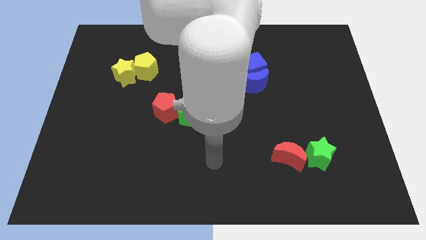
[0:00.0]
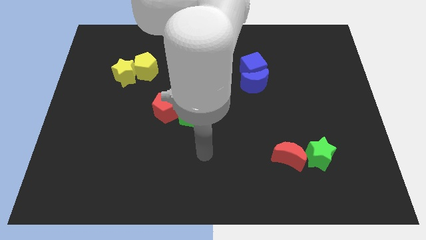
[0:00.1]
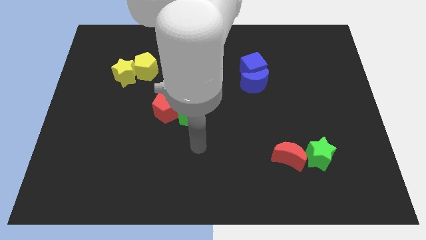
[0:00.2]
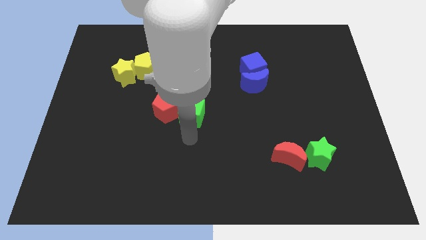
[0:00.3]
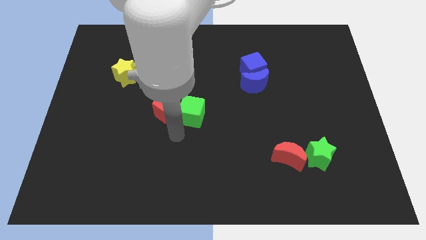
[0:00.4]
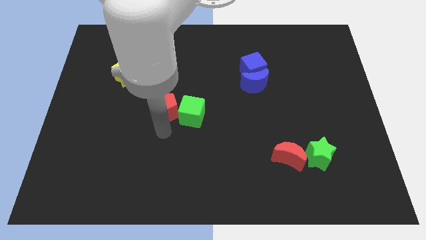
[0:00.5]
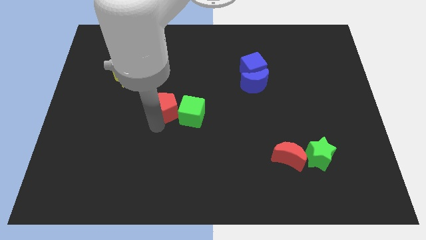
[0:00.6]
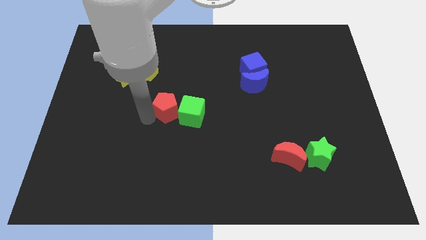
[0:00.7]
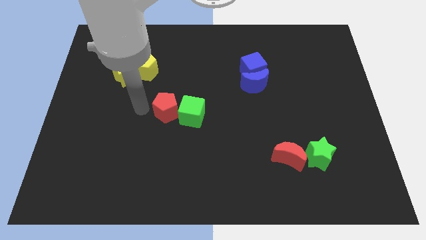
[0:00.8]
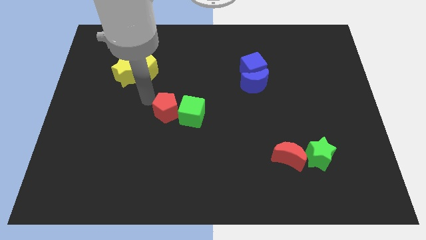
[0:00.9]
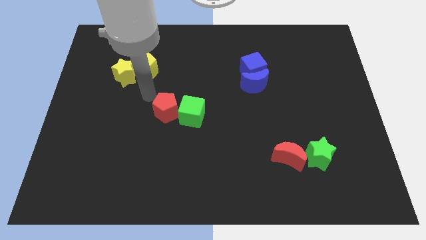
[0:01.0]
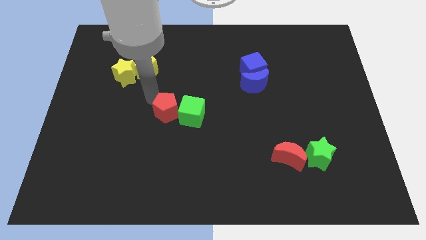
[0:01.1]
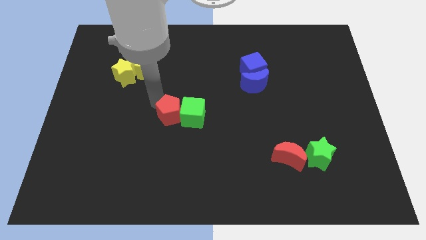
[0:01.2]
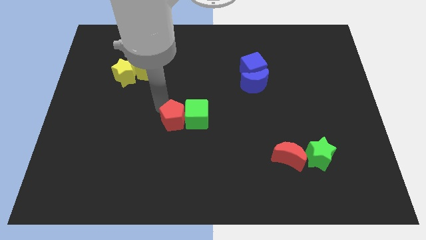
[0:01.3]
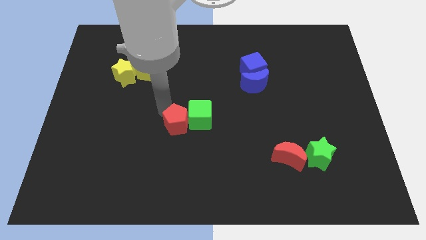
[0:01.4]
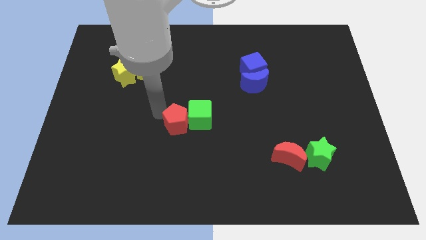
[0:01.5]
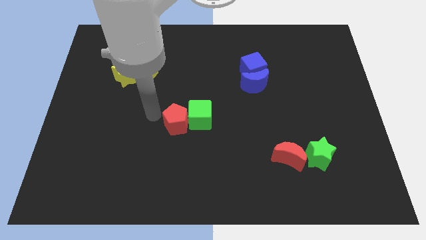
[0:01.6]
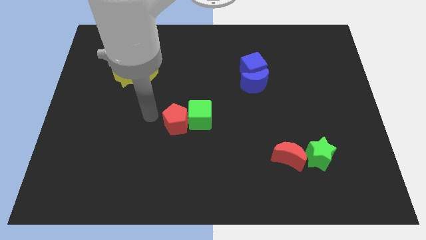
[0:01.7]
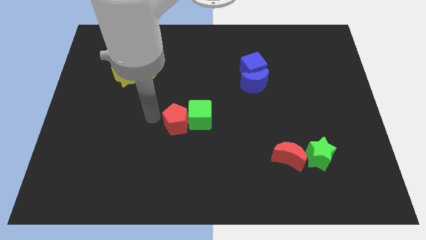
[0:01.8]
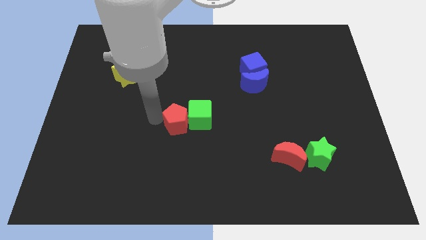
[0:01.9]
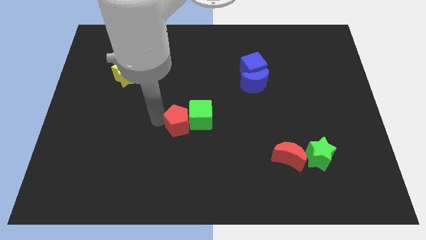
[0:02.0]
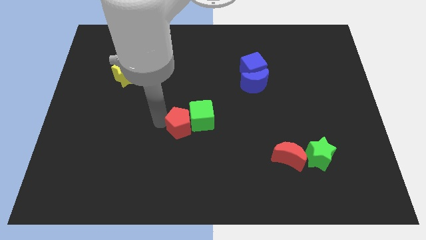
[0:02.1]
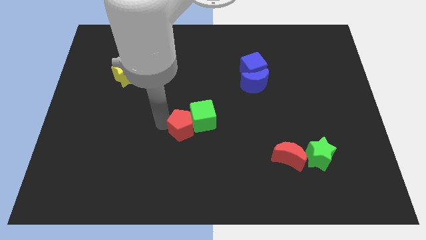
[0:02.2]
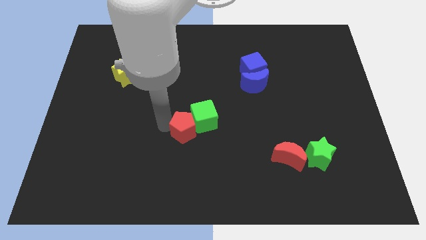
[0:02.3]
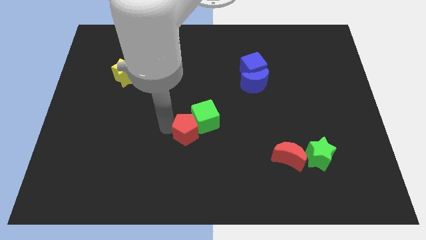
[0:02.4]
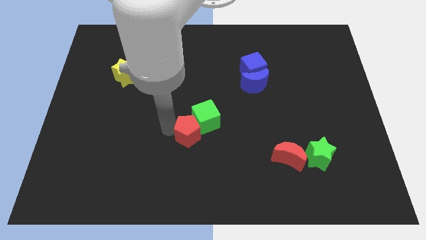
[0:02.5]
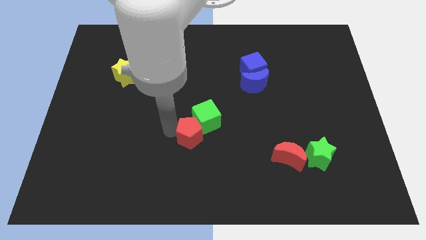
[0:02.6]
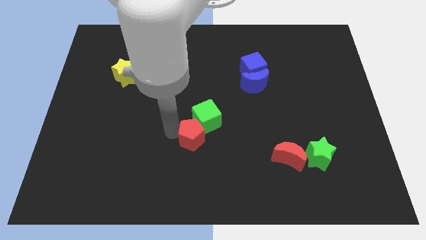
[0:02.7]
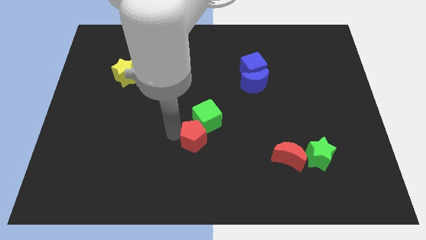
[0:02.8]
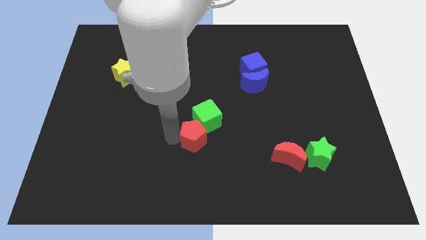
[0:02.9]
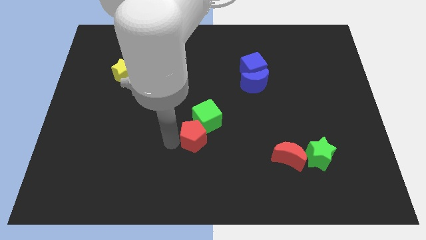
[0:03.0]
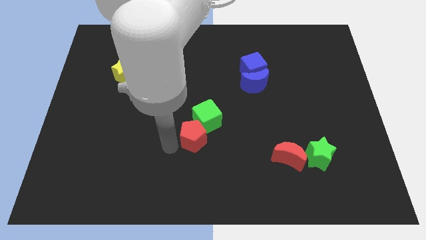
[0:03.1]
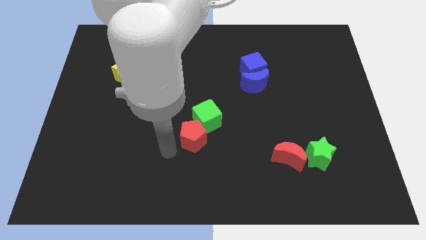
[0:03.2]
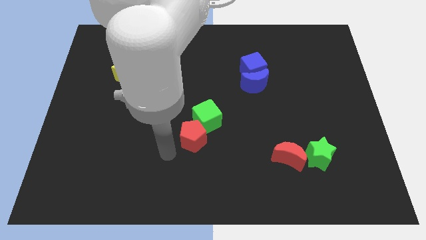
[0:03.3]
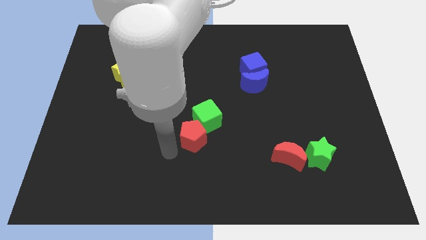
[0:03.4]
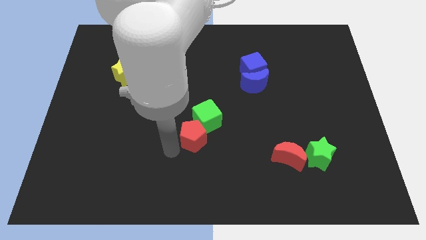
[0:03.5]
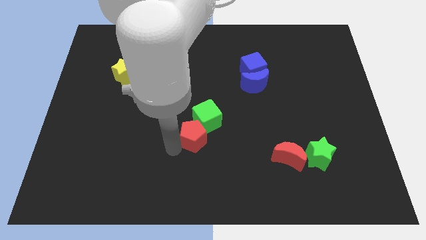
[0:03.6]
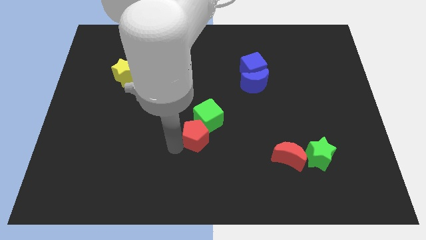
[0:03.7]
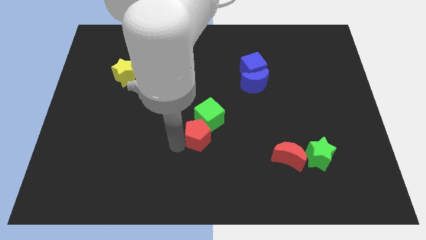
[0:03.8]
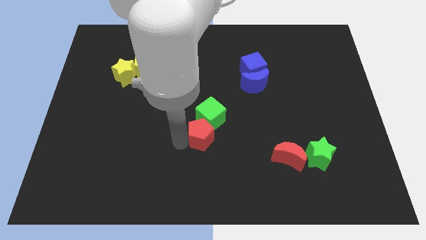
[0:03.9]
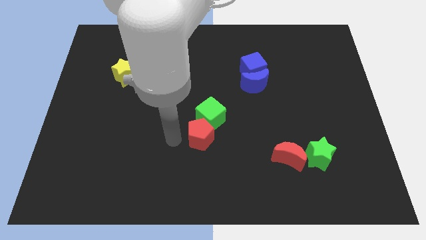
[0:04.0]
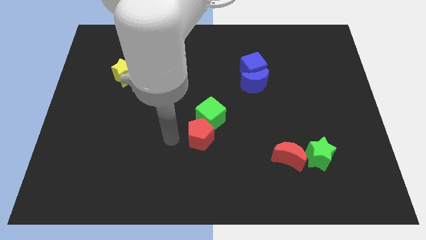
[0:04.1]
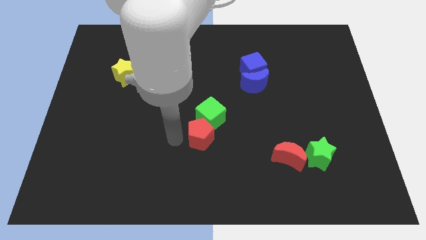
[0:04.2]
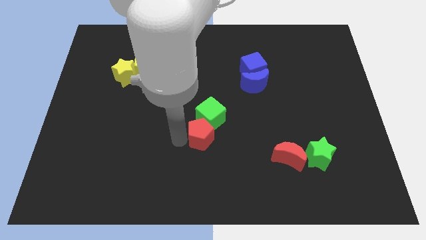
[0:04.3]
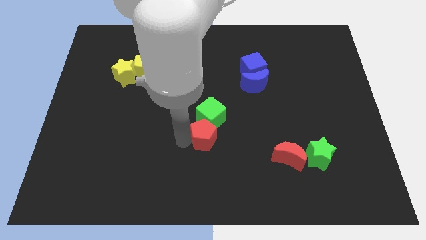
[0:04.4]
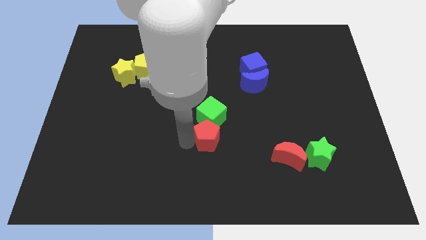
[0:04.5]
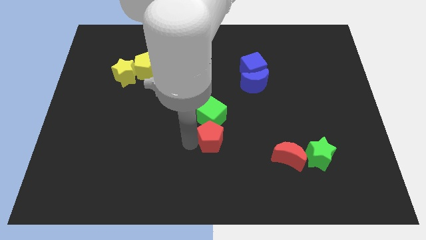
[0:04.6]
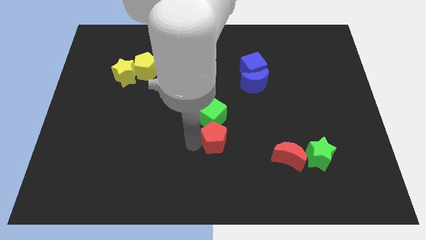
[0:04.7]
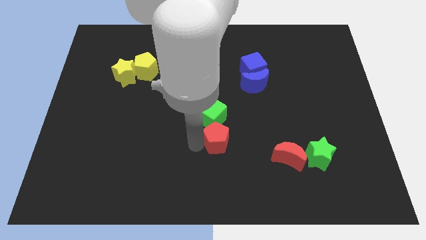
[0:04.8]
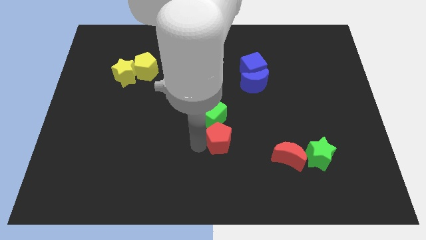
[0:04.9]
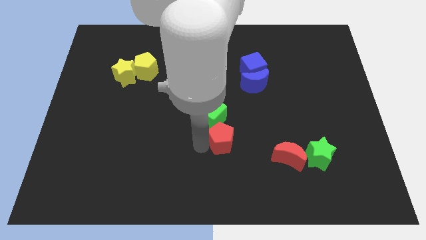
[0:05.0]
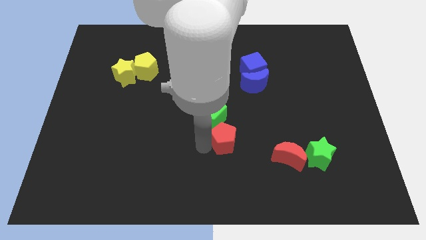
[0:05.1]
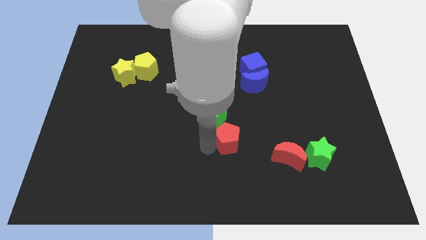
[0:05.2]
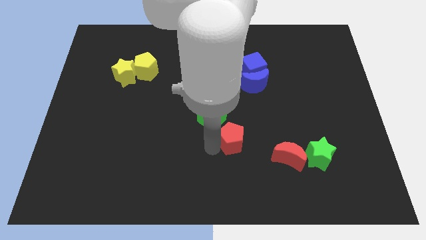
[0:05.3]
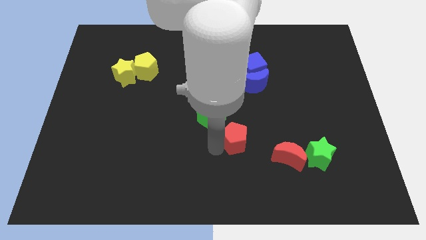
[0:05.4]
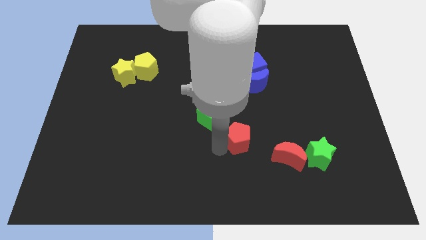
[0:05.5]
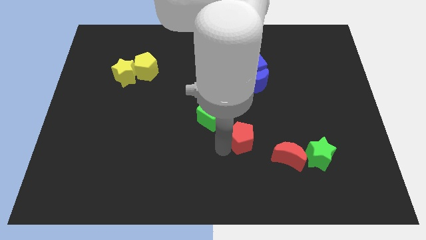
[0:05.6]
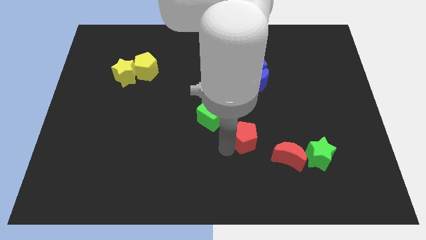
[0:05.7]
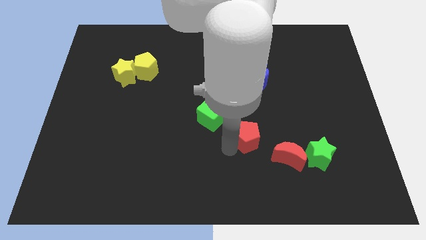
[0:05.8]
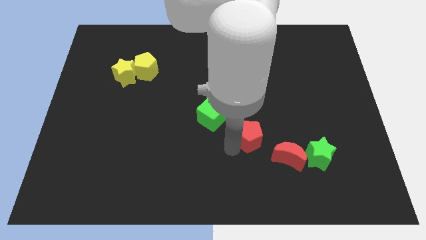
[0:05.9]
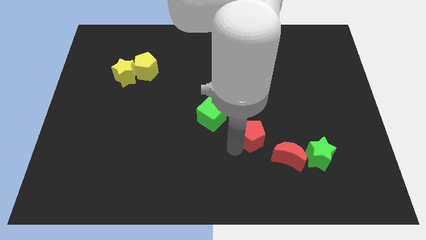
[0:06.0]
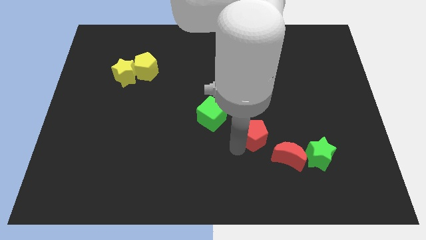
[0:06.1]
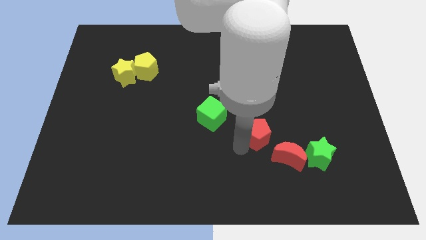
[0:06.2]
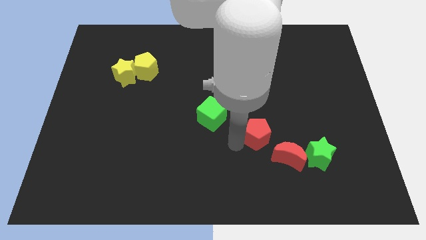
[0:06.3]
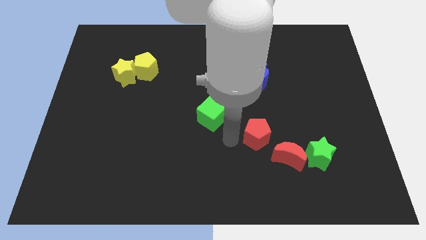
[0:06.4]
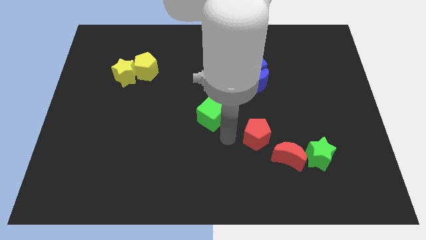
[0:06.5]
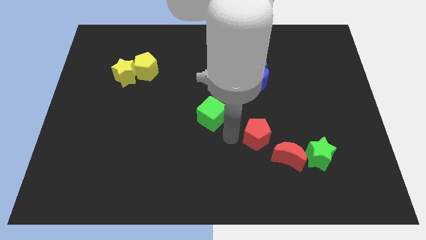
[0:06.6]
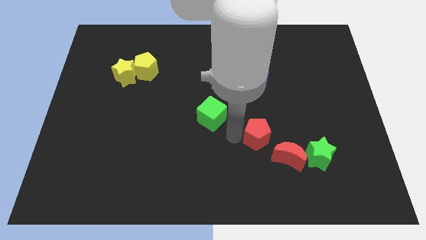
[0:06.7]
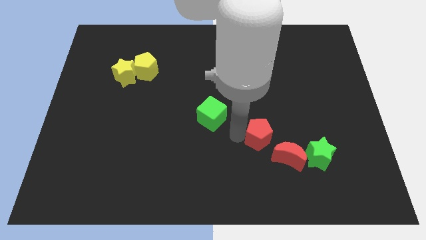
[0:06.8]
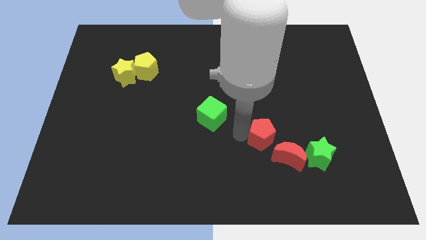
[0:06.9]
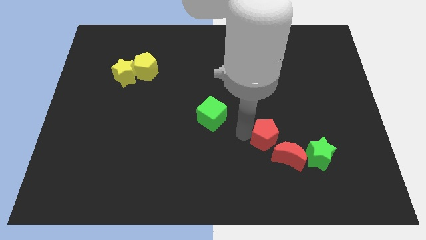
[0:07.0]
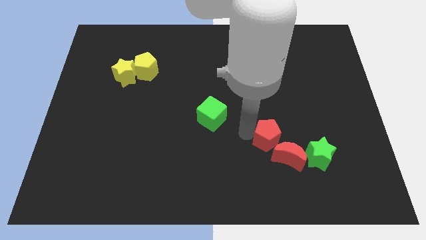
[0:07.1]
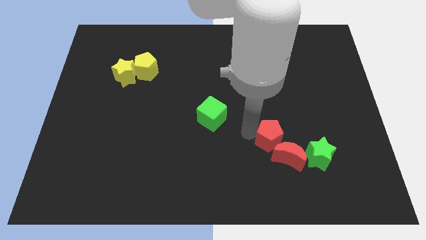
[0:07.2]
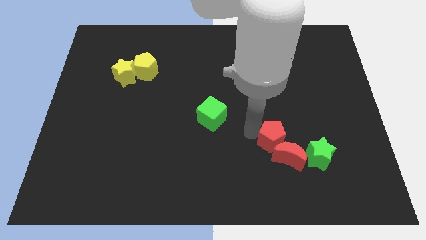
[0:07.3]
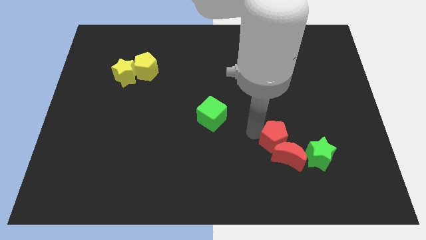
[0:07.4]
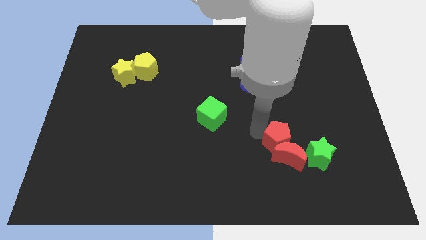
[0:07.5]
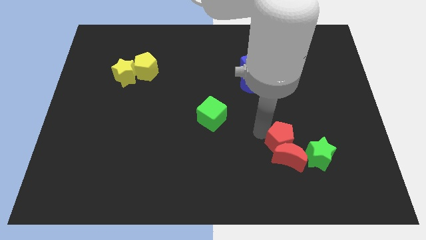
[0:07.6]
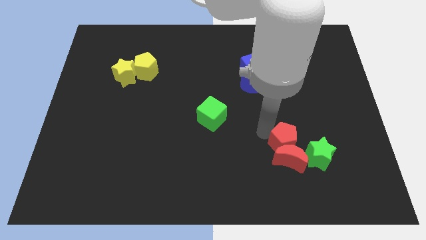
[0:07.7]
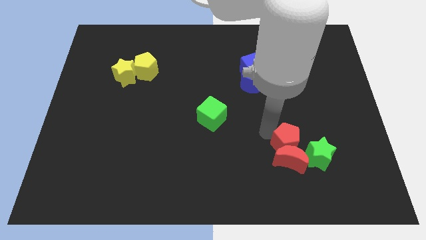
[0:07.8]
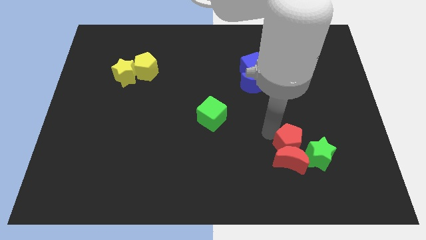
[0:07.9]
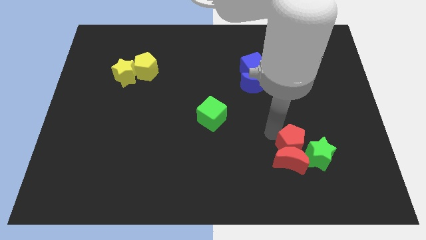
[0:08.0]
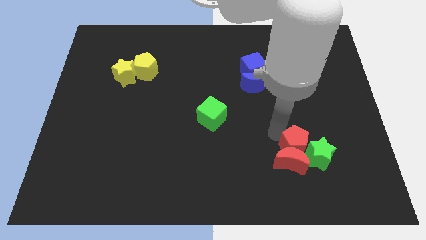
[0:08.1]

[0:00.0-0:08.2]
slide the red pentagon towards the green star
